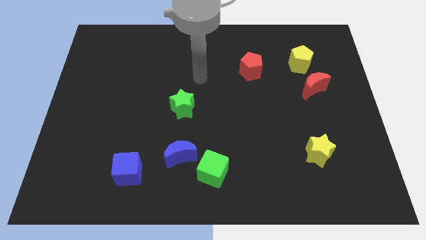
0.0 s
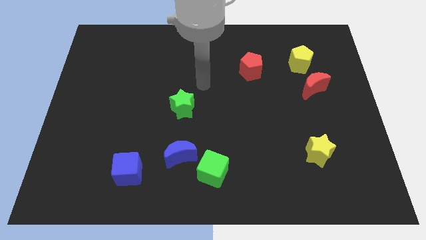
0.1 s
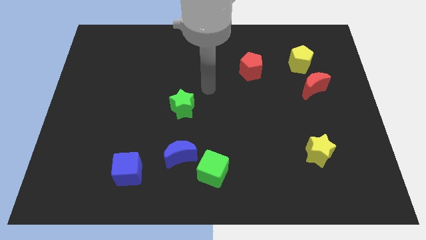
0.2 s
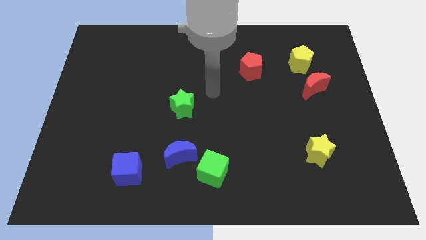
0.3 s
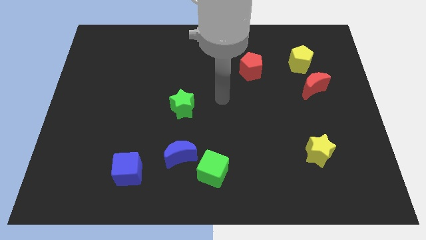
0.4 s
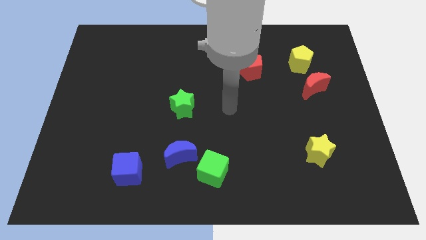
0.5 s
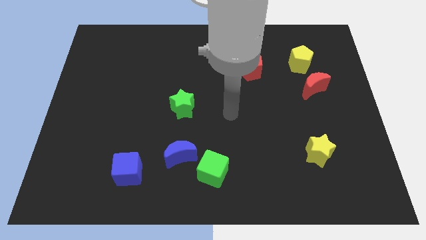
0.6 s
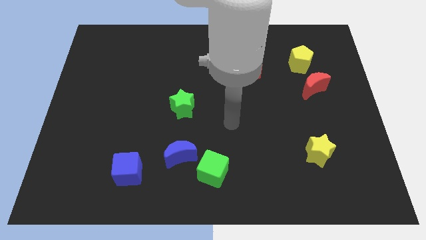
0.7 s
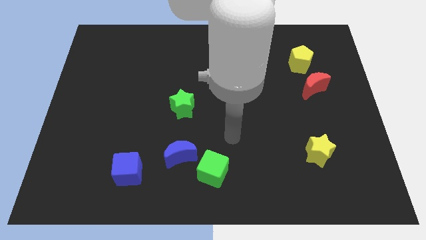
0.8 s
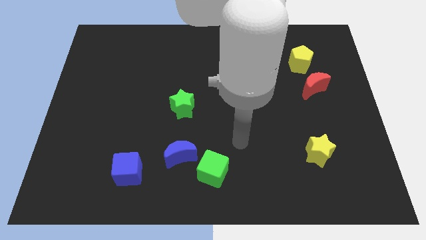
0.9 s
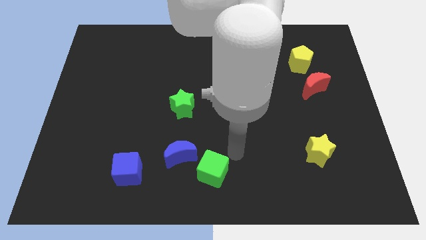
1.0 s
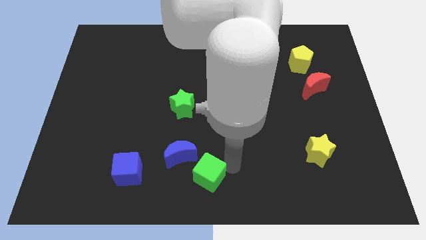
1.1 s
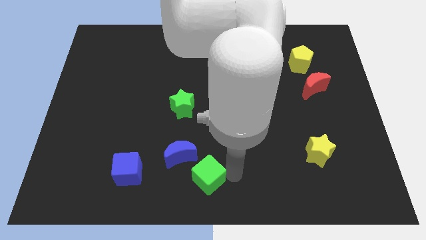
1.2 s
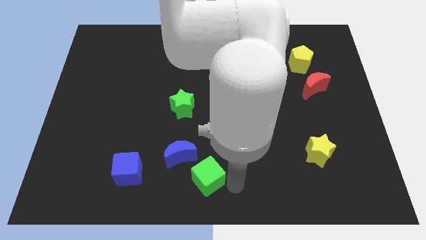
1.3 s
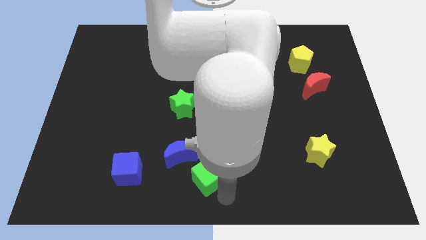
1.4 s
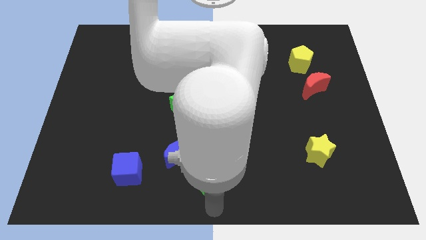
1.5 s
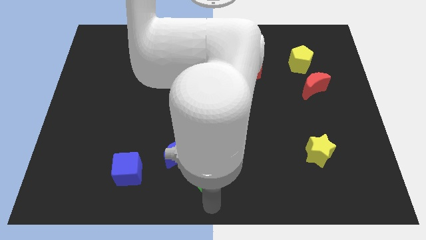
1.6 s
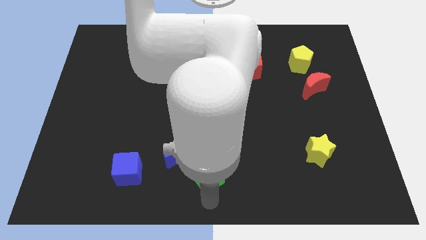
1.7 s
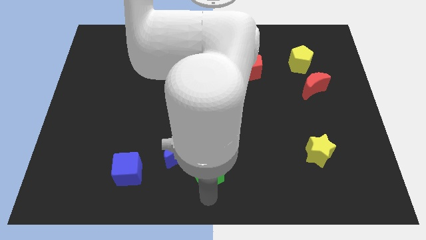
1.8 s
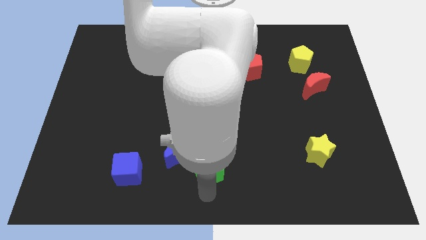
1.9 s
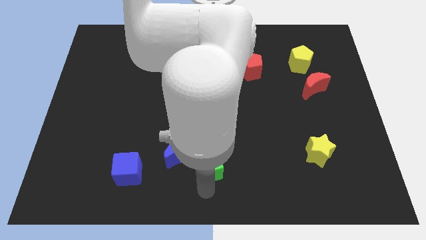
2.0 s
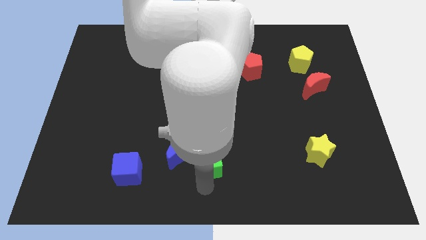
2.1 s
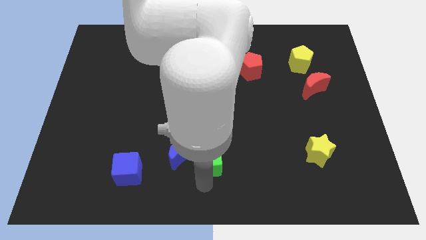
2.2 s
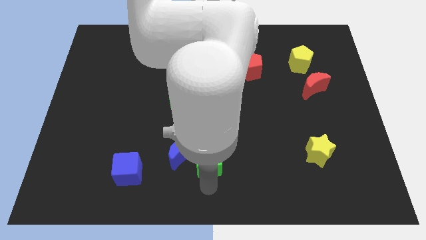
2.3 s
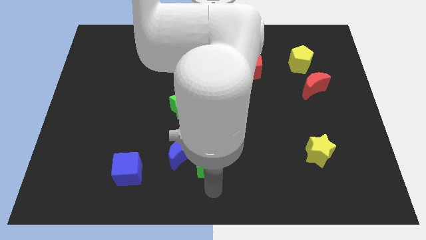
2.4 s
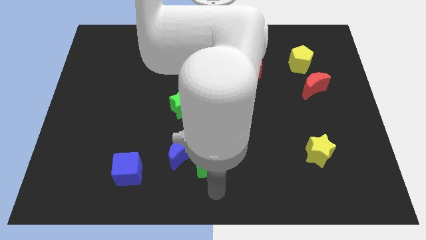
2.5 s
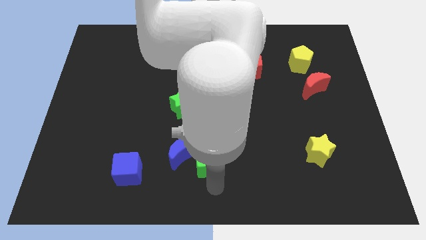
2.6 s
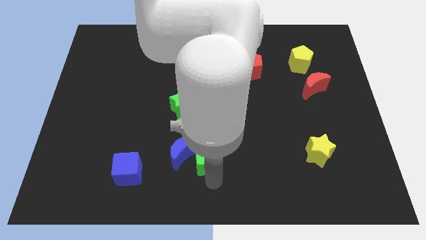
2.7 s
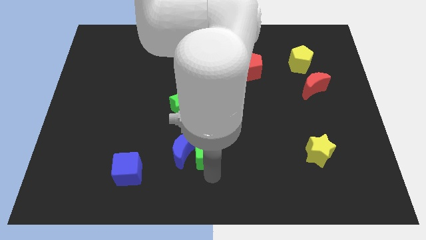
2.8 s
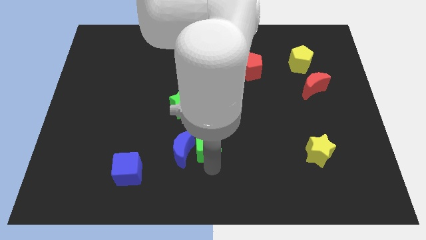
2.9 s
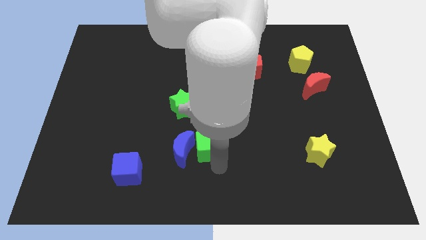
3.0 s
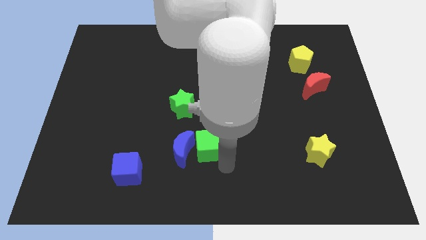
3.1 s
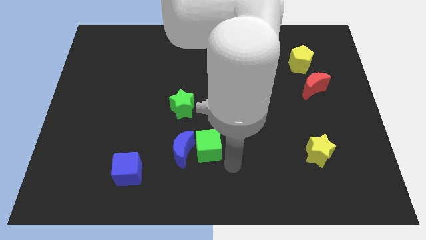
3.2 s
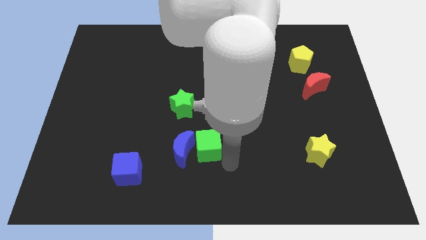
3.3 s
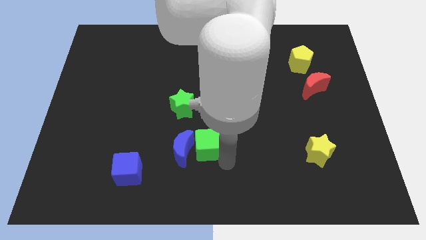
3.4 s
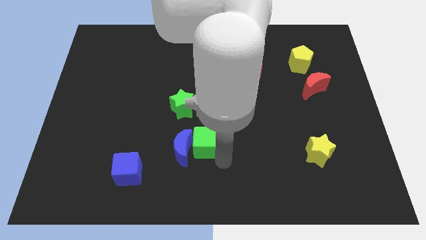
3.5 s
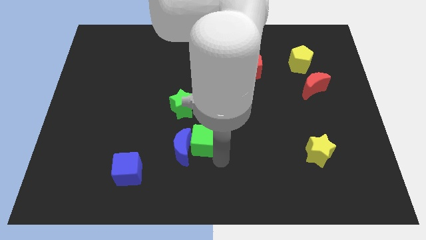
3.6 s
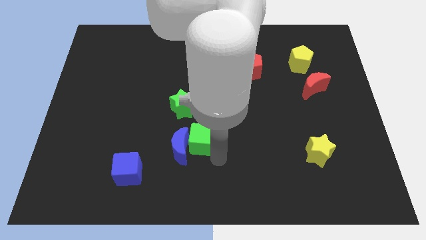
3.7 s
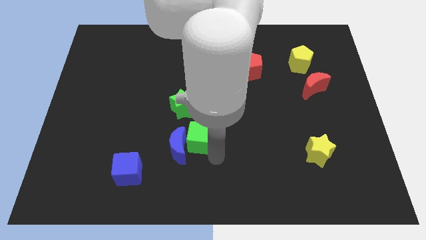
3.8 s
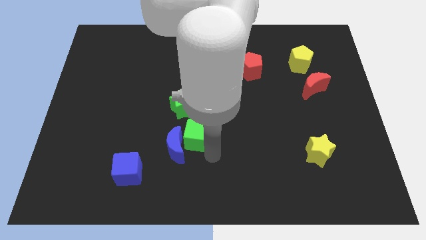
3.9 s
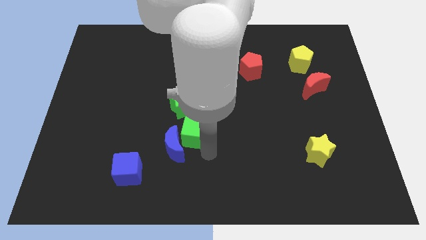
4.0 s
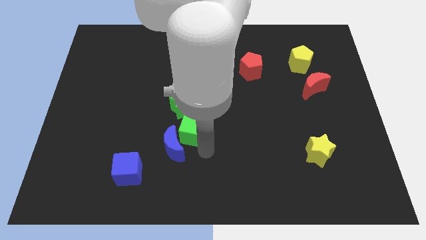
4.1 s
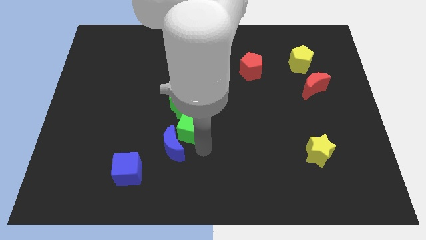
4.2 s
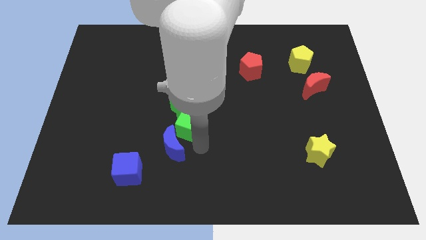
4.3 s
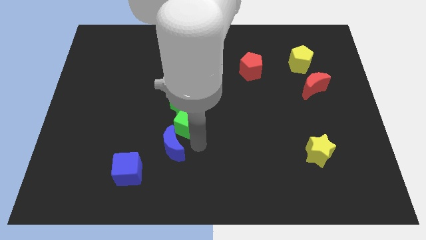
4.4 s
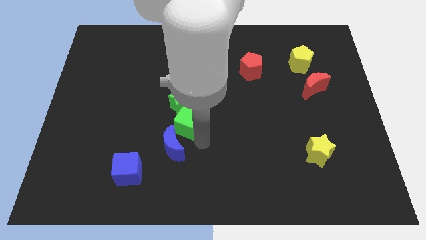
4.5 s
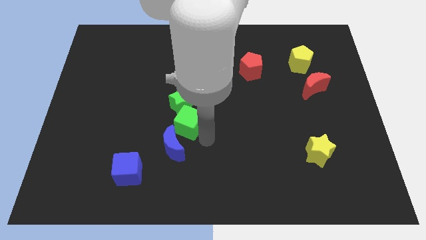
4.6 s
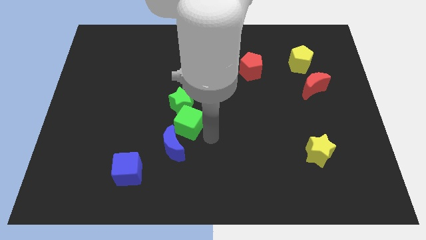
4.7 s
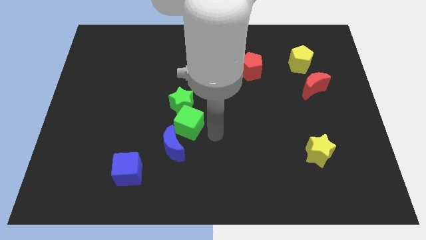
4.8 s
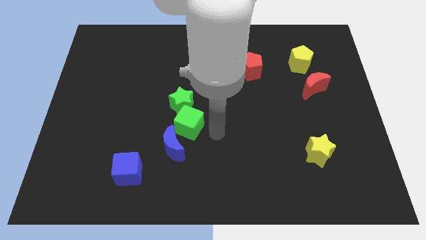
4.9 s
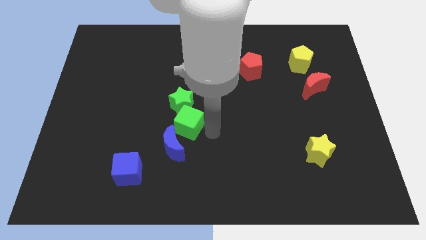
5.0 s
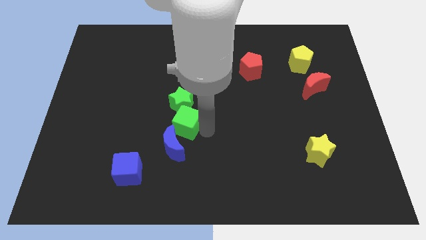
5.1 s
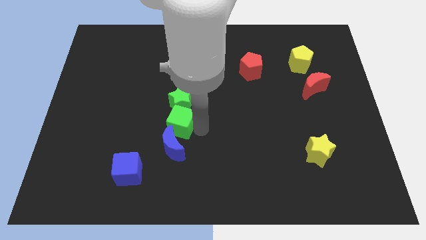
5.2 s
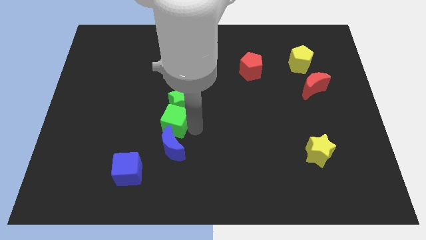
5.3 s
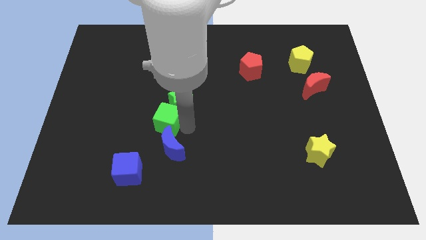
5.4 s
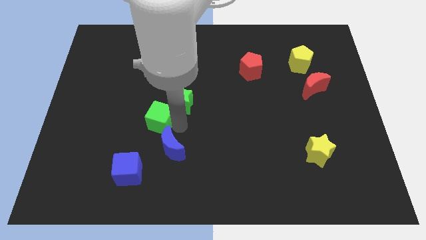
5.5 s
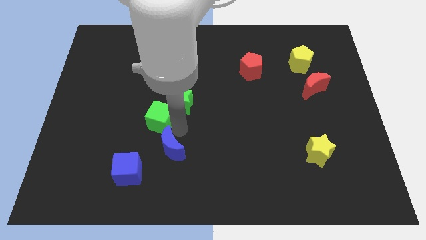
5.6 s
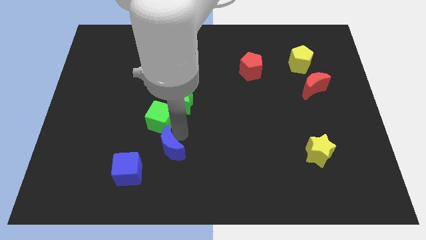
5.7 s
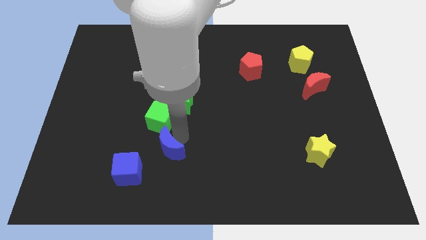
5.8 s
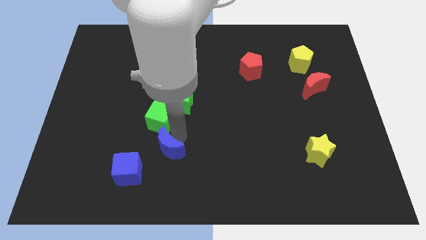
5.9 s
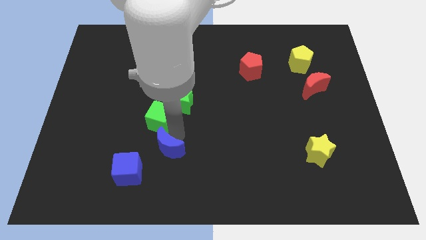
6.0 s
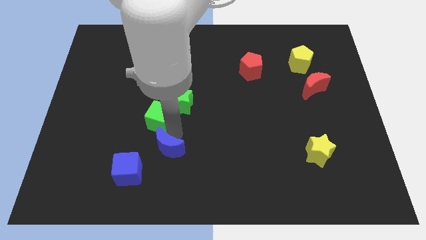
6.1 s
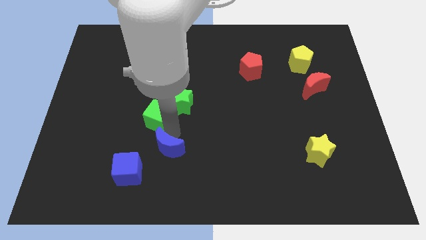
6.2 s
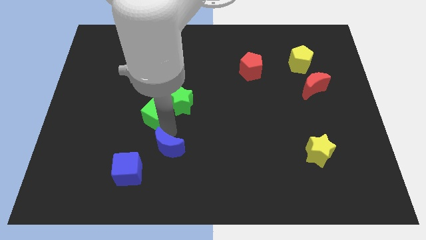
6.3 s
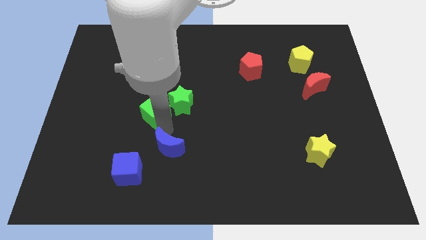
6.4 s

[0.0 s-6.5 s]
slide the green cube upwards and then left

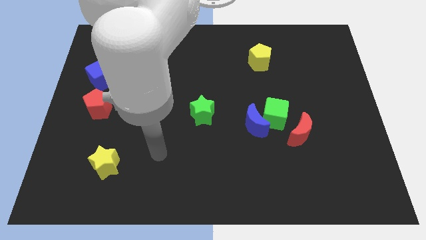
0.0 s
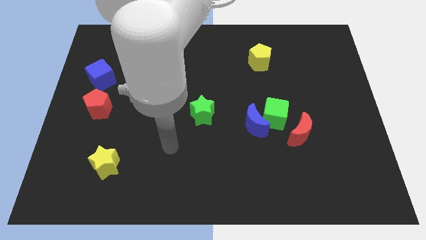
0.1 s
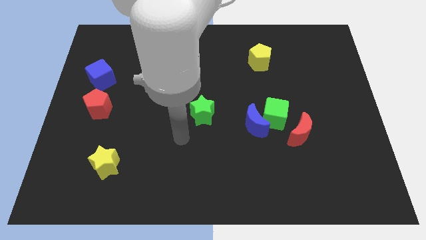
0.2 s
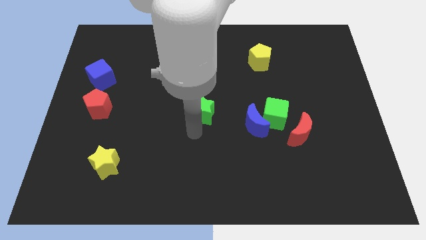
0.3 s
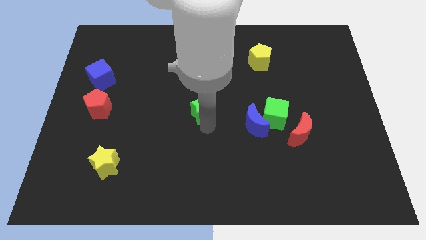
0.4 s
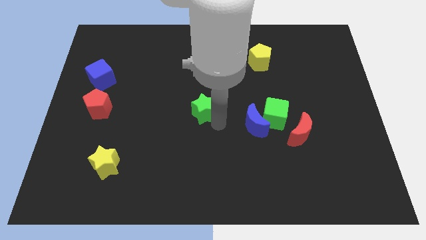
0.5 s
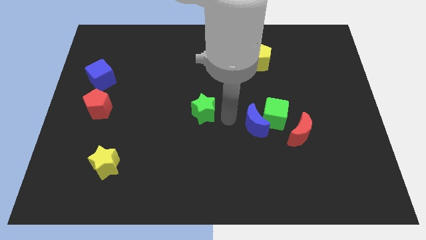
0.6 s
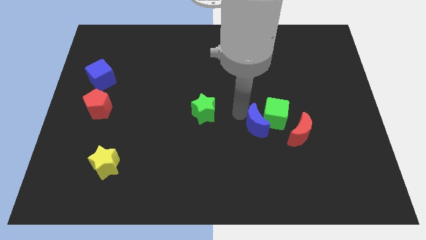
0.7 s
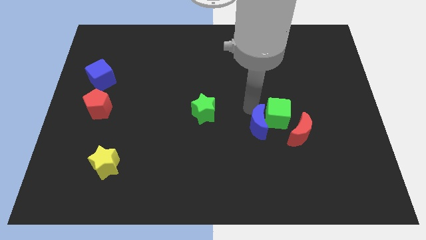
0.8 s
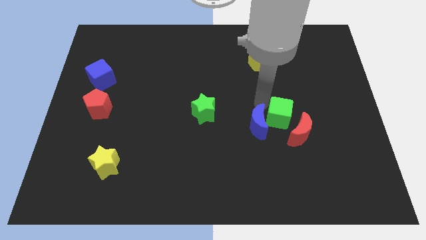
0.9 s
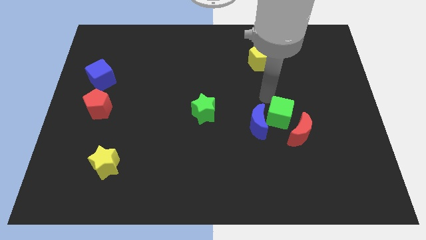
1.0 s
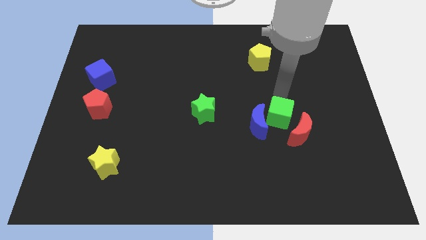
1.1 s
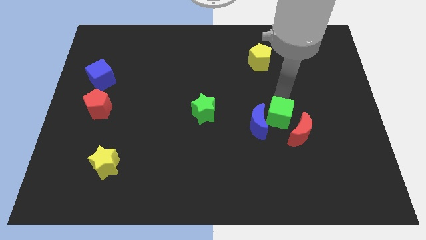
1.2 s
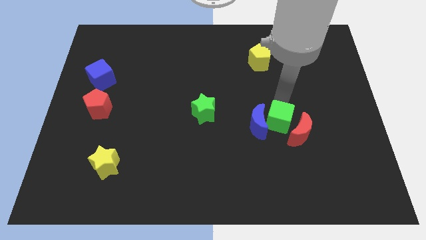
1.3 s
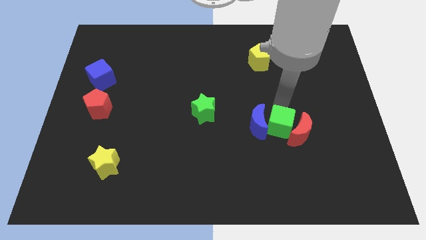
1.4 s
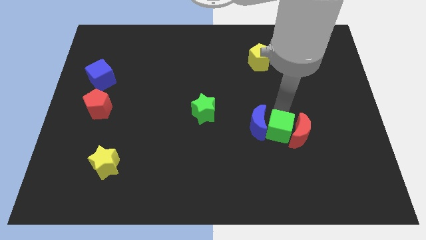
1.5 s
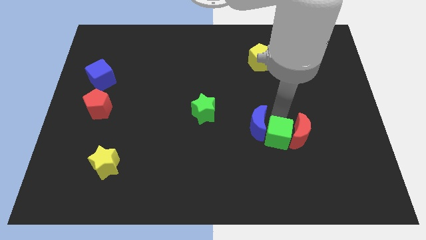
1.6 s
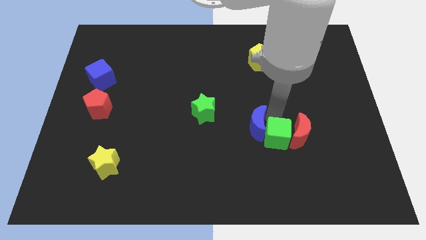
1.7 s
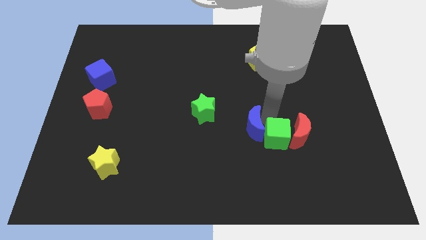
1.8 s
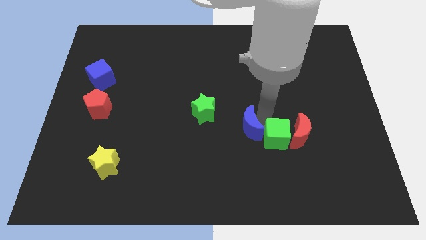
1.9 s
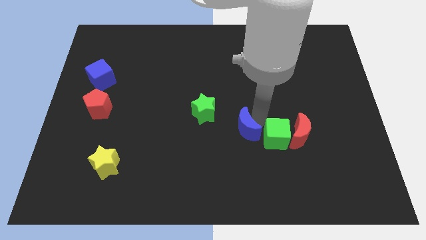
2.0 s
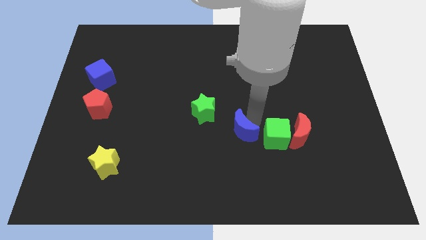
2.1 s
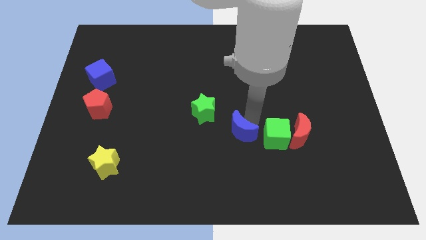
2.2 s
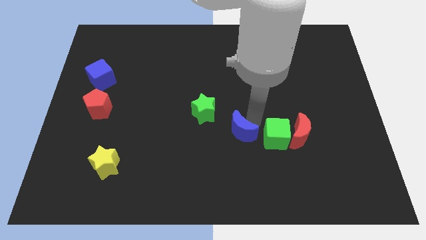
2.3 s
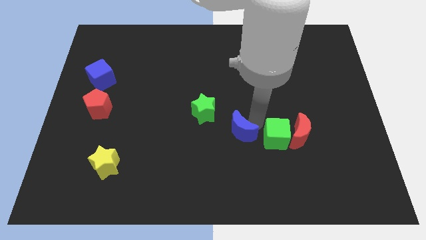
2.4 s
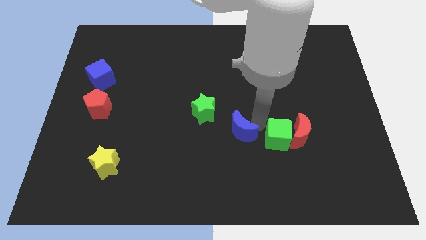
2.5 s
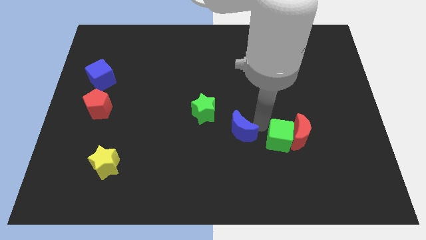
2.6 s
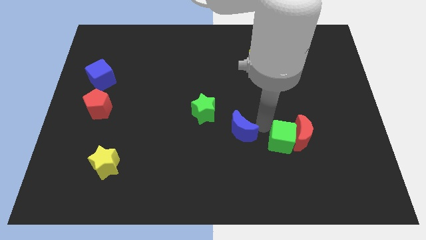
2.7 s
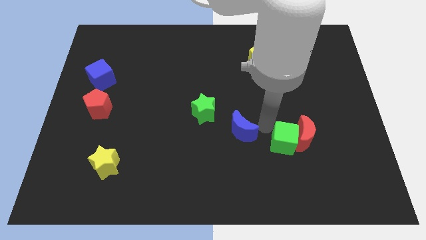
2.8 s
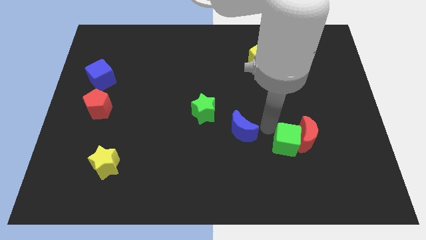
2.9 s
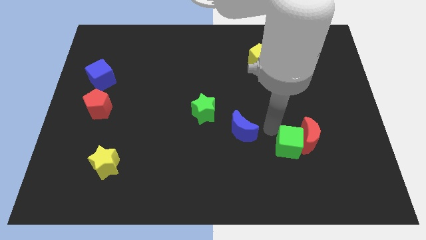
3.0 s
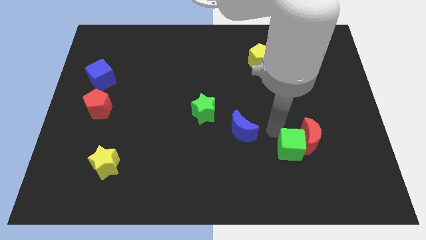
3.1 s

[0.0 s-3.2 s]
move the green cube somewhat downwards and then right
